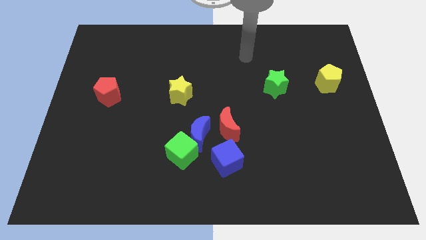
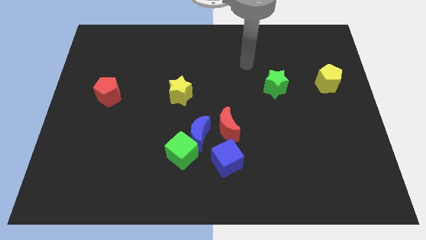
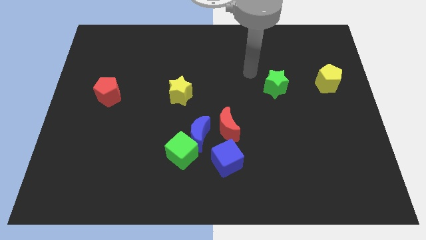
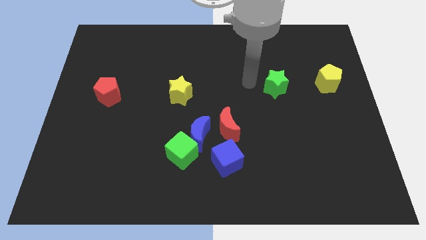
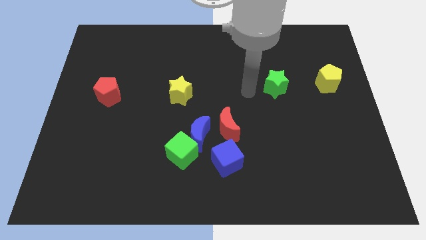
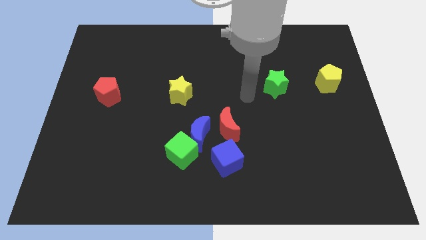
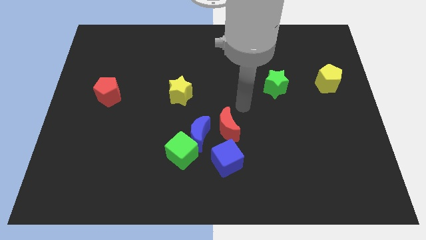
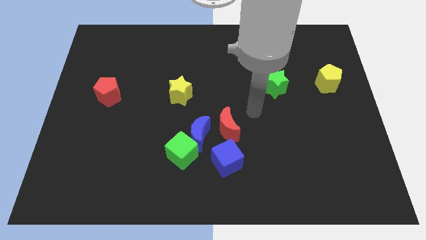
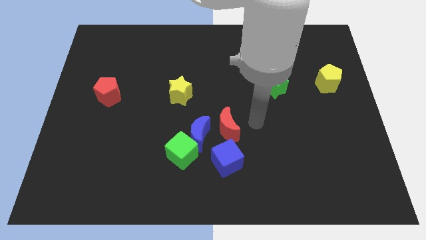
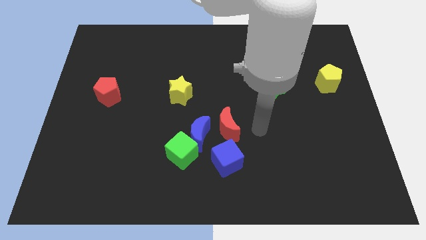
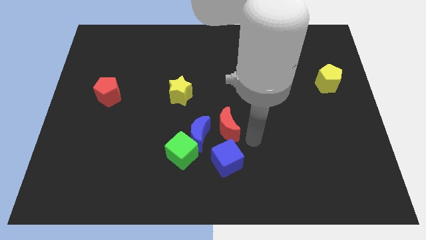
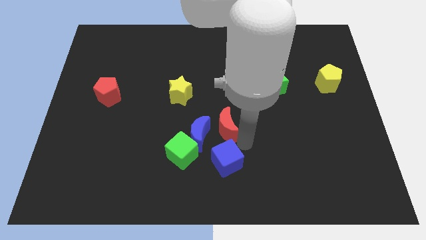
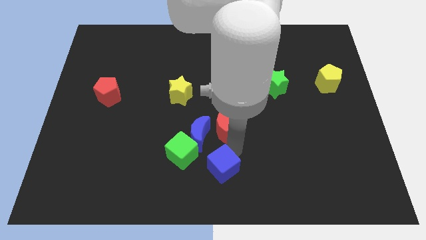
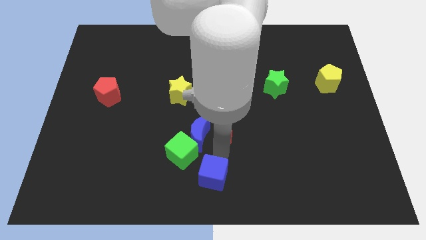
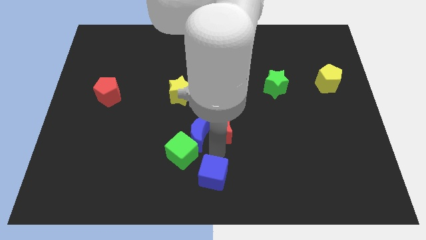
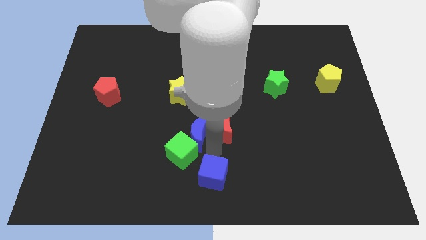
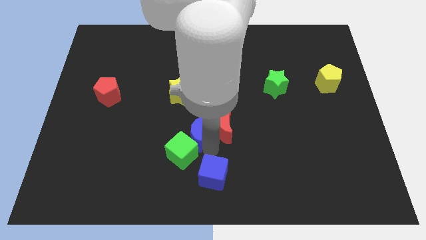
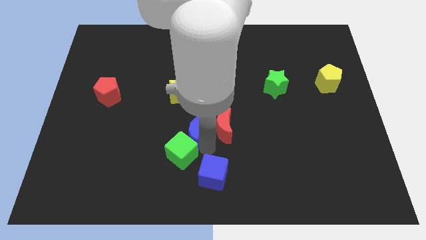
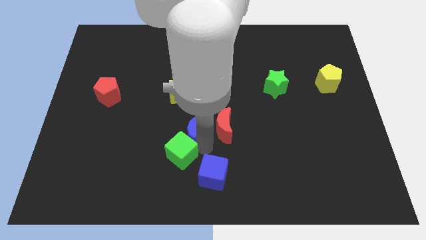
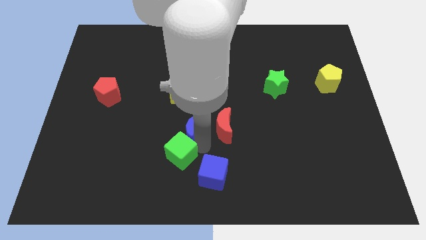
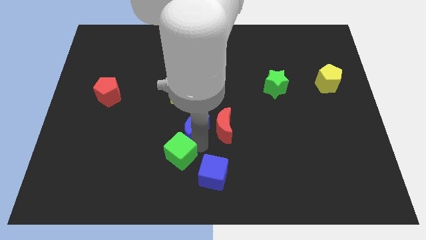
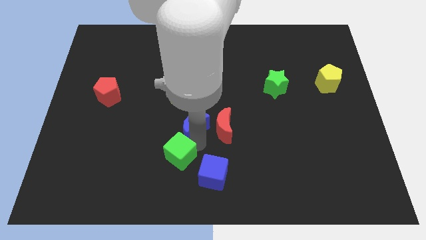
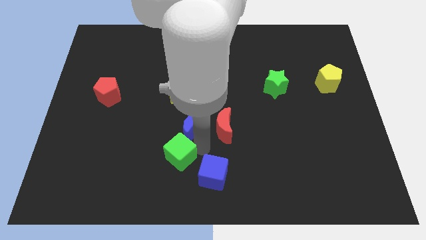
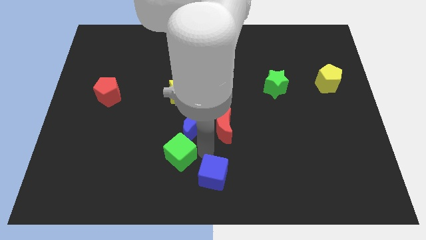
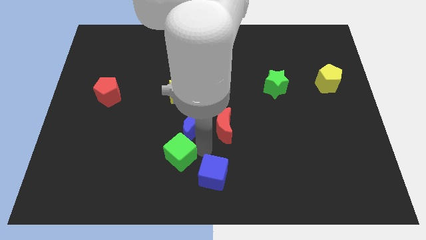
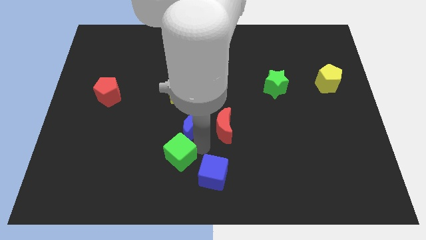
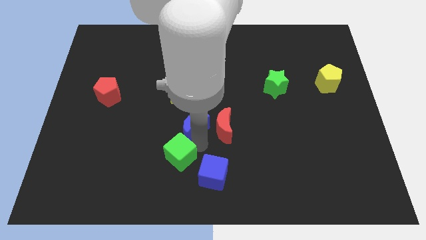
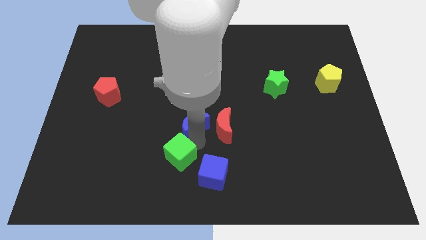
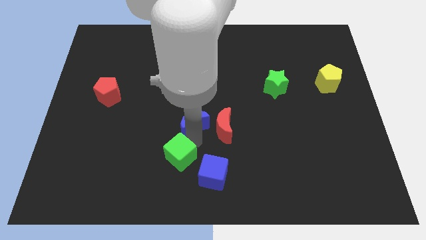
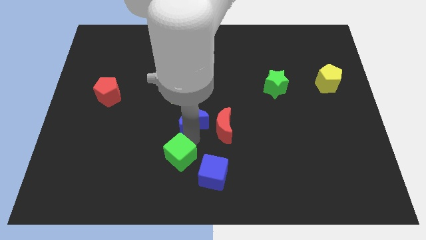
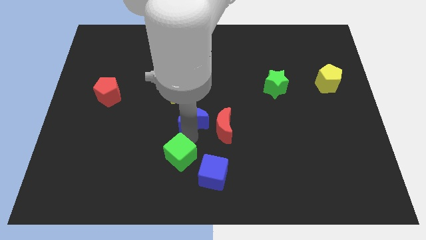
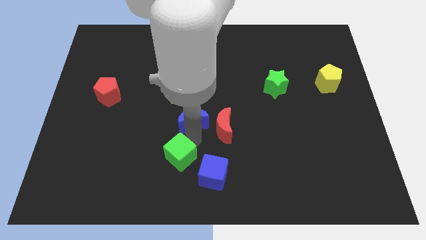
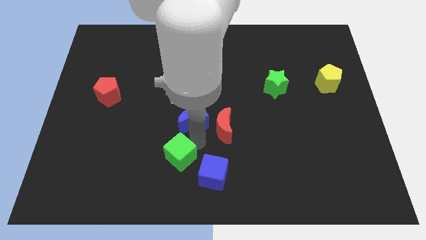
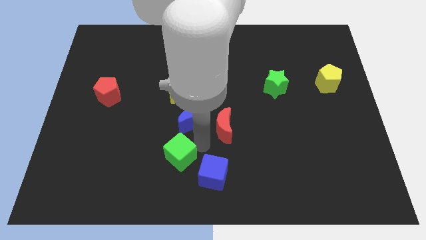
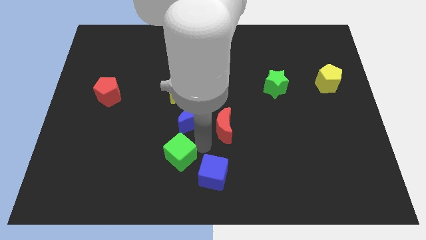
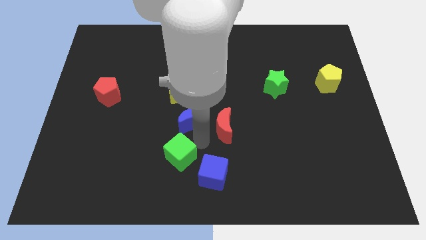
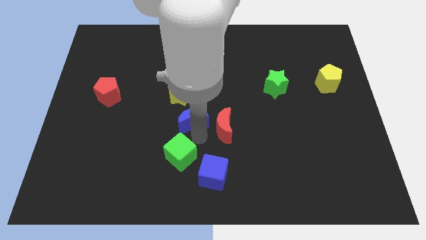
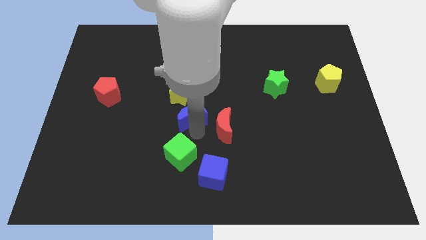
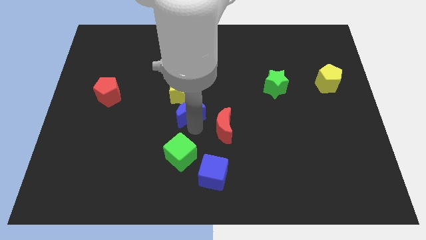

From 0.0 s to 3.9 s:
move the blue moon away from the green cube, red moon, and blue cube

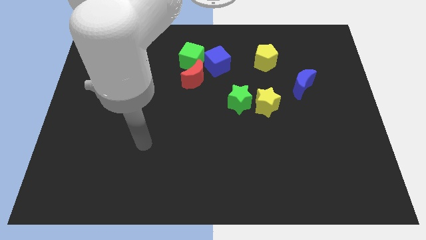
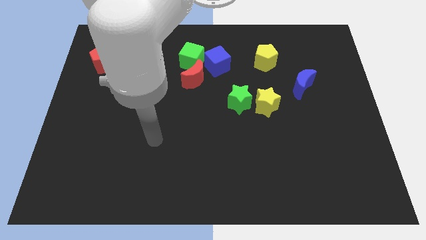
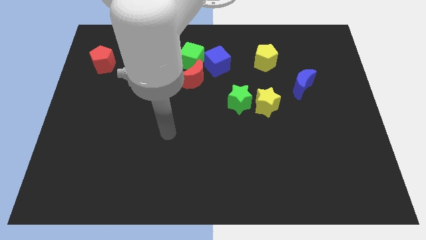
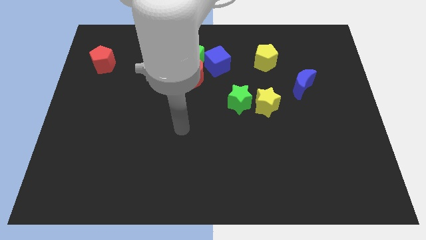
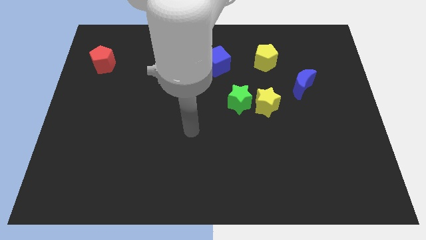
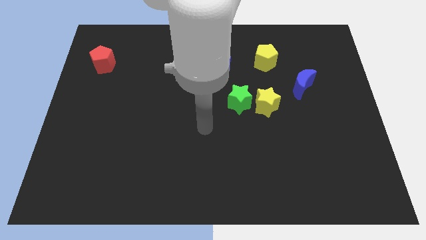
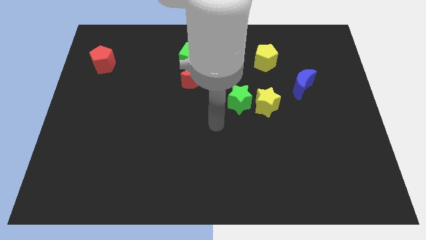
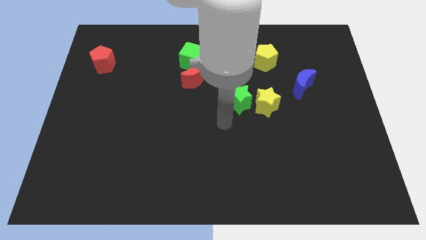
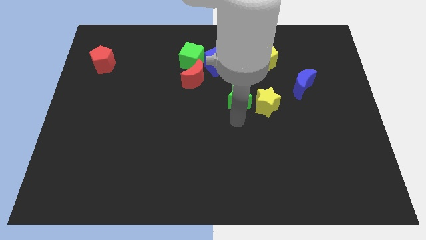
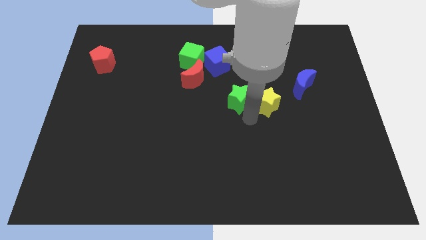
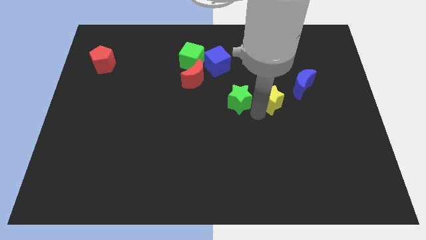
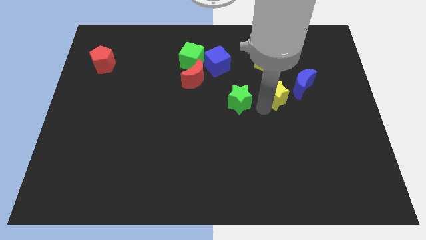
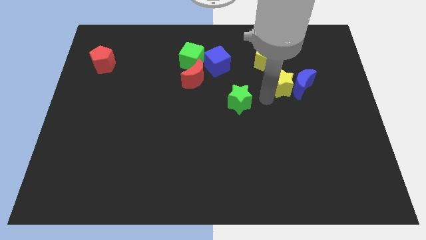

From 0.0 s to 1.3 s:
move the green star away from the yellow star

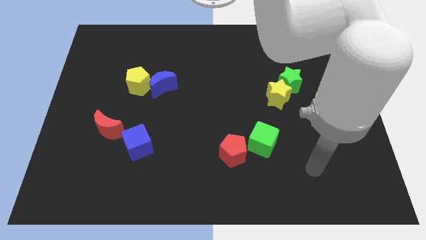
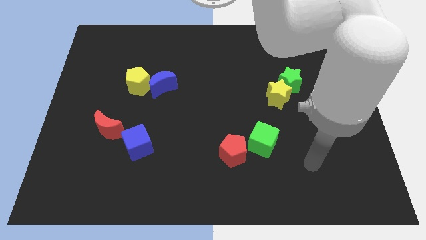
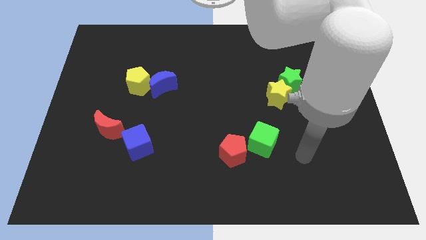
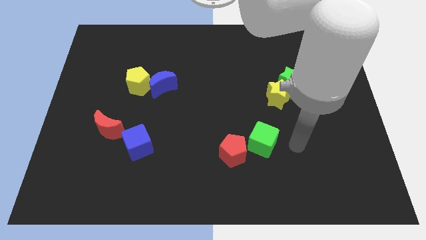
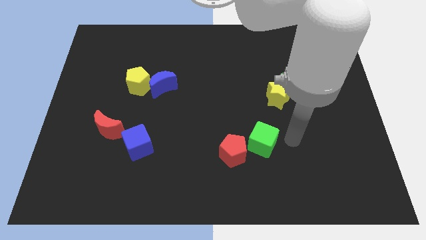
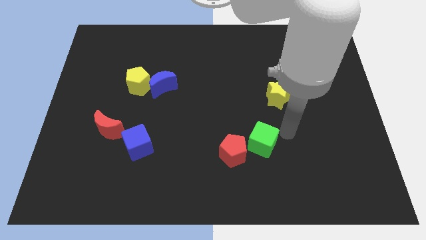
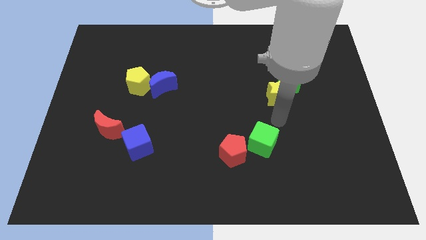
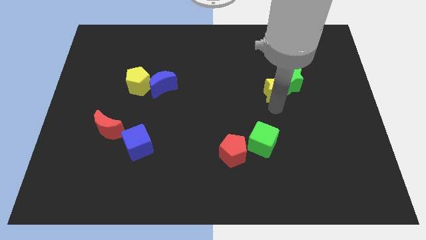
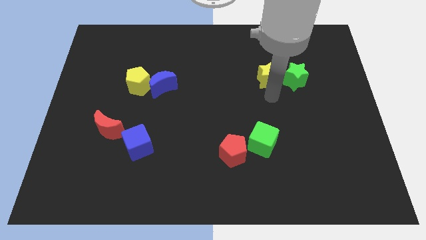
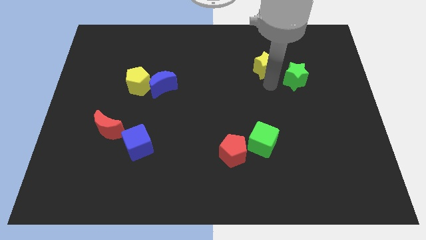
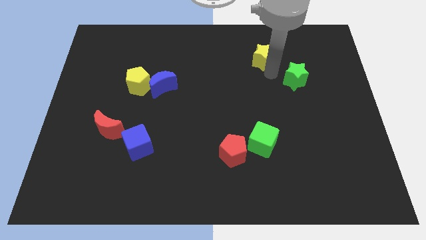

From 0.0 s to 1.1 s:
separate the green star from the yellow star

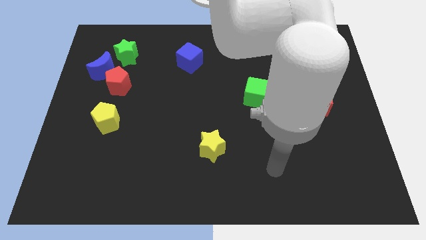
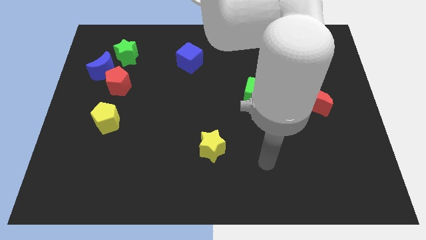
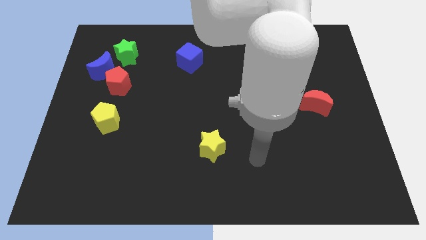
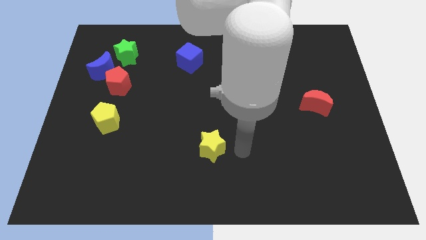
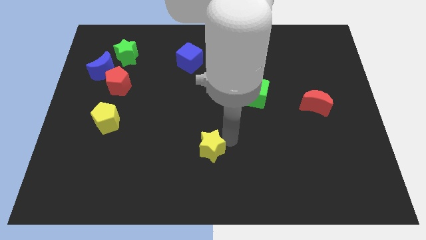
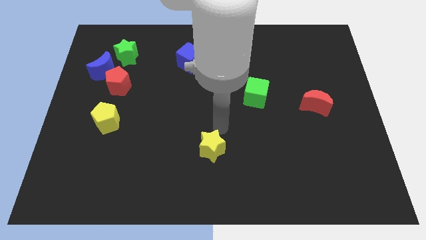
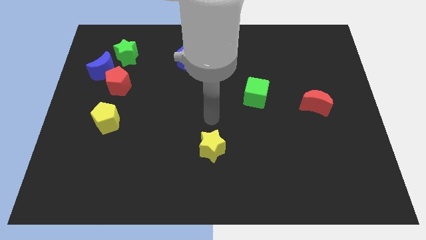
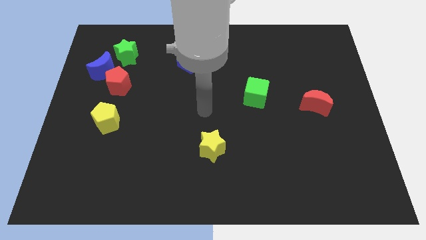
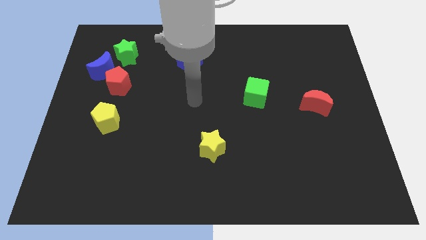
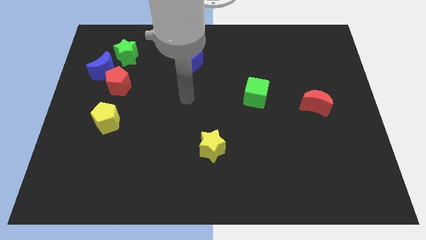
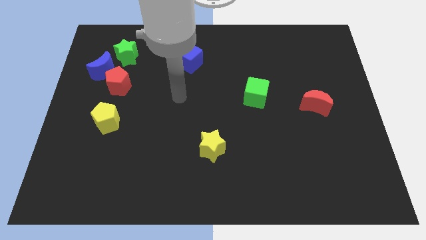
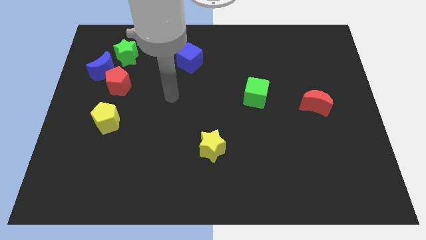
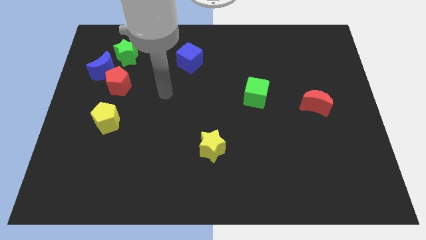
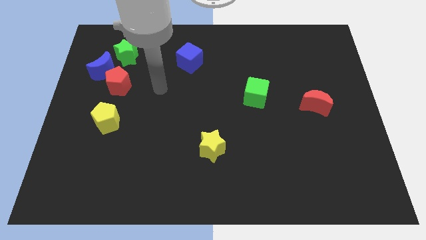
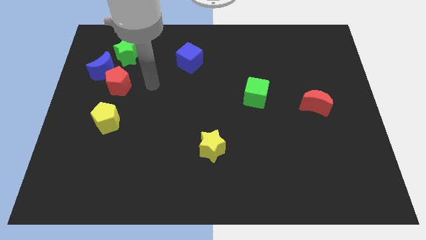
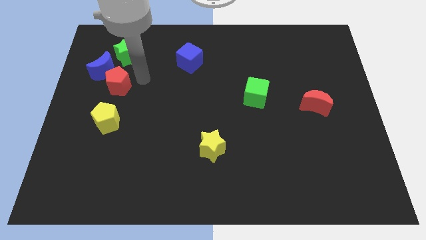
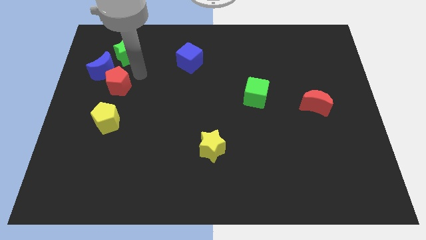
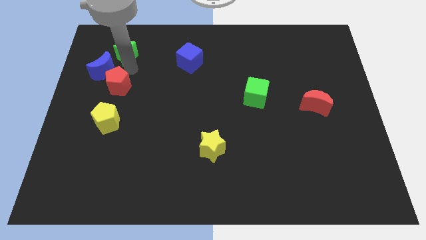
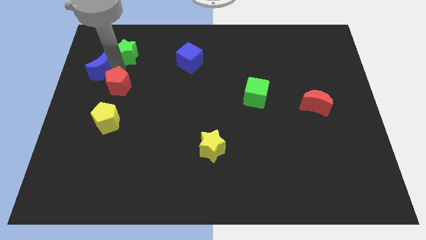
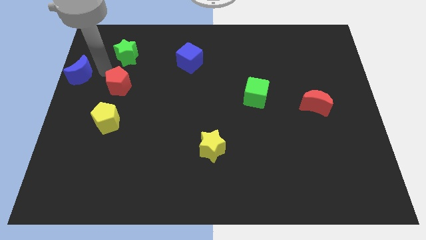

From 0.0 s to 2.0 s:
pull the red pentagon apart from the blue moon

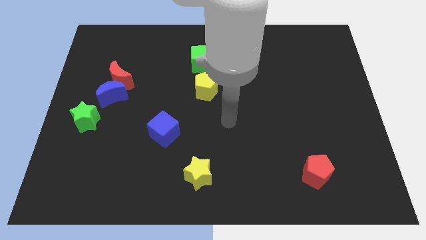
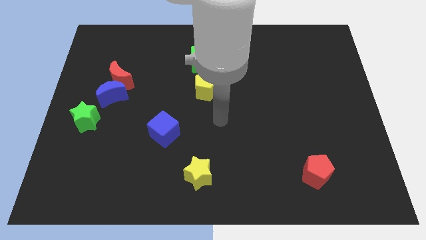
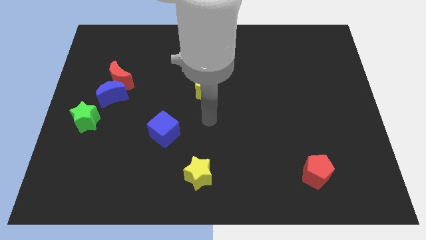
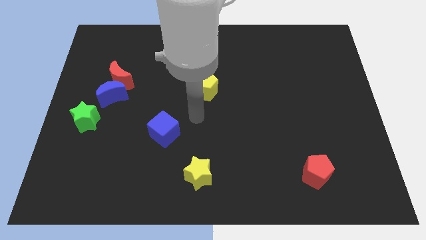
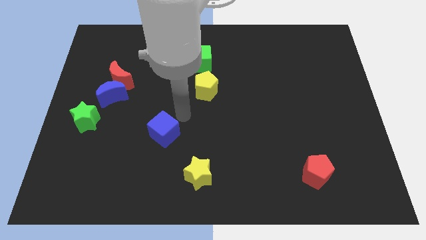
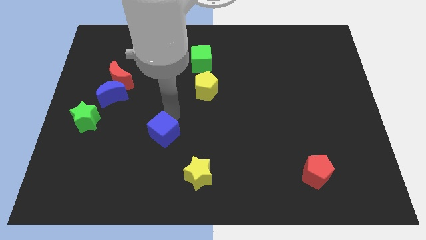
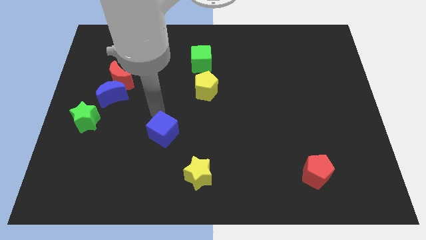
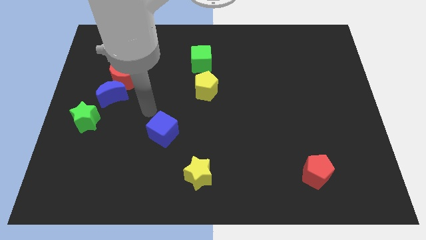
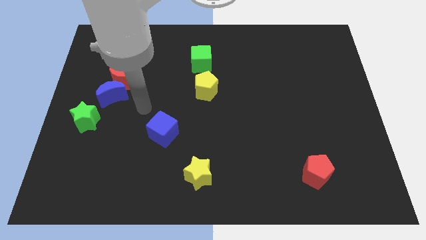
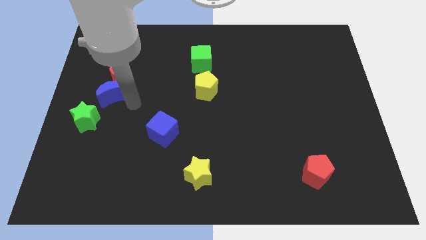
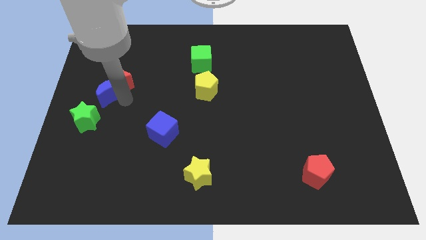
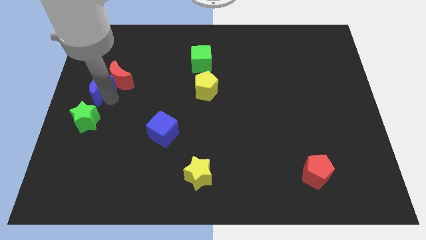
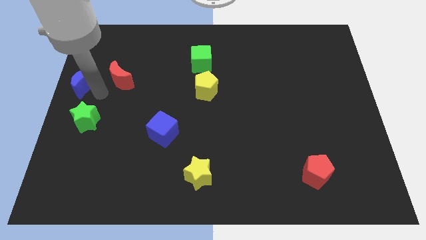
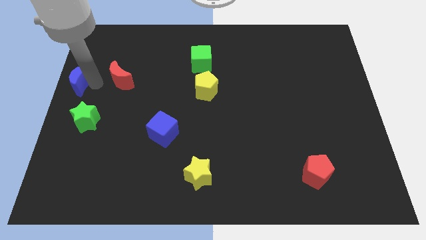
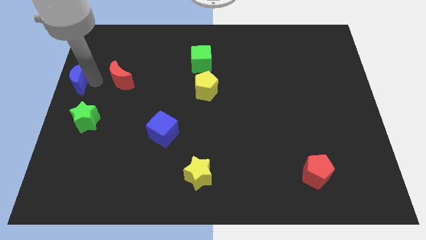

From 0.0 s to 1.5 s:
pull the red moon apart from the blue moon
